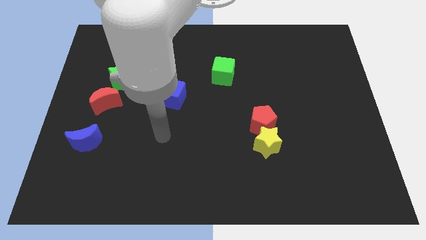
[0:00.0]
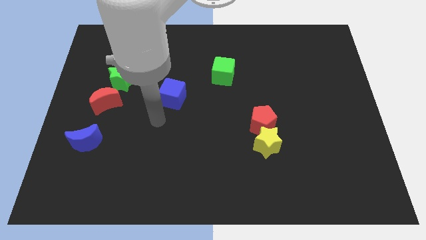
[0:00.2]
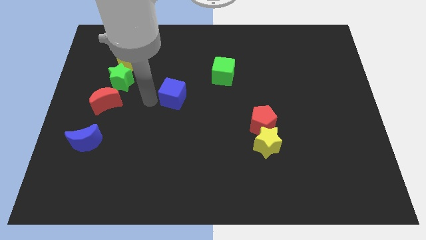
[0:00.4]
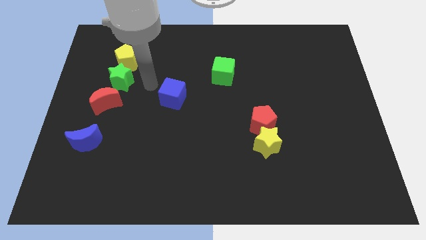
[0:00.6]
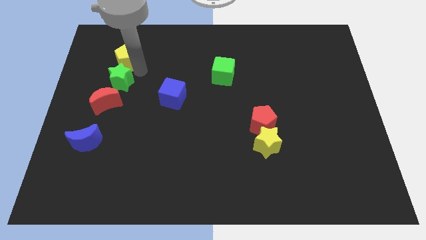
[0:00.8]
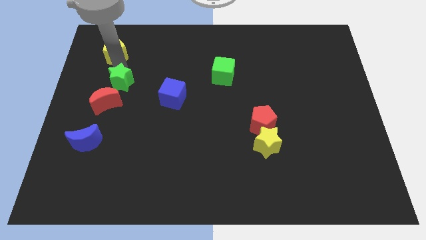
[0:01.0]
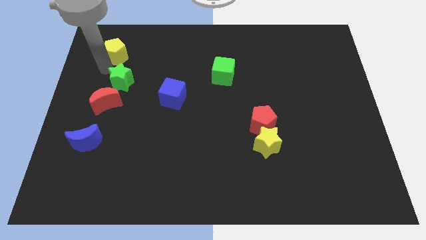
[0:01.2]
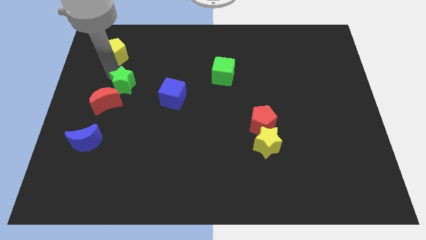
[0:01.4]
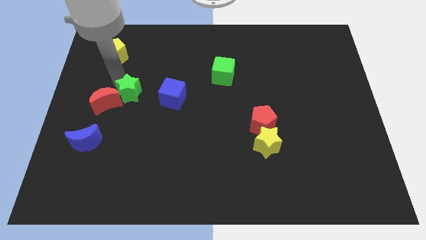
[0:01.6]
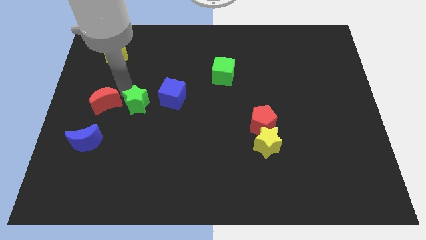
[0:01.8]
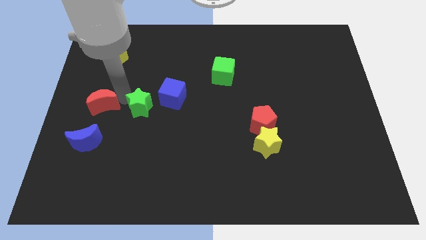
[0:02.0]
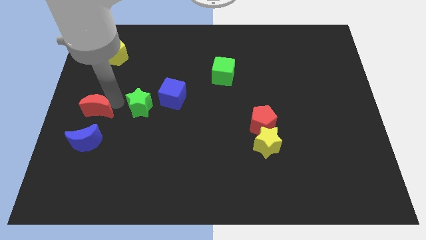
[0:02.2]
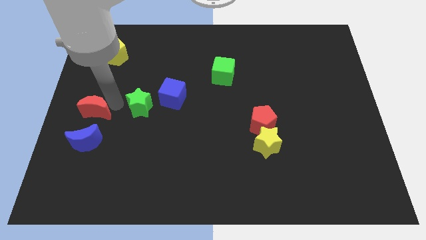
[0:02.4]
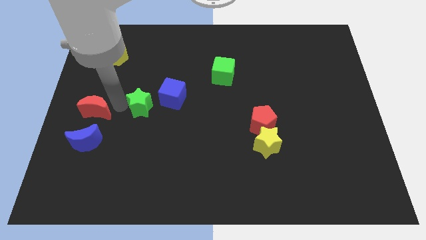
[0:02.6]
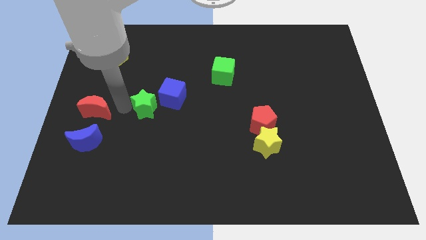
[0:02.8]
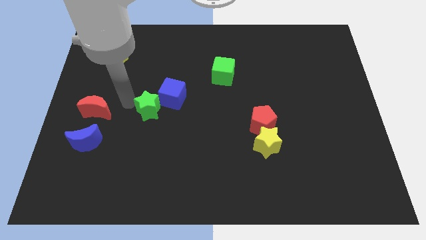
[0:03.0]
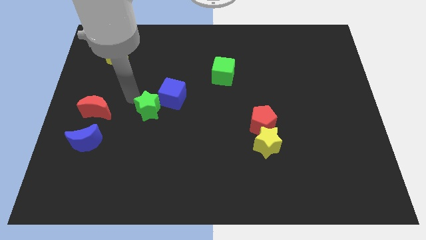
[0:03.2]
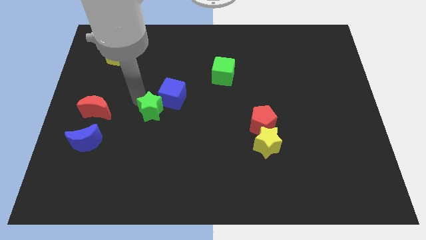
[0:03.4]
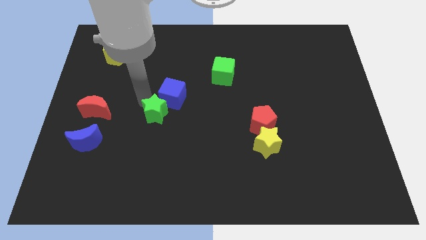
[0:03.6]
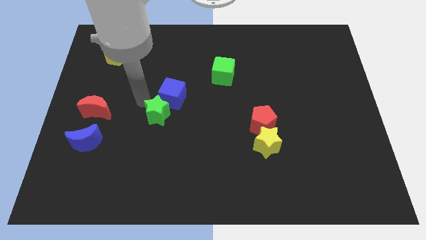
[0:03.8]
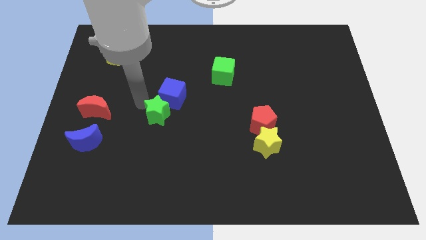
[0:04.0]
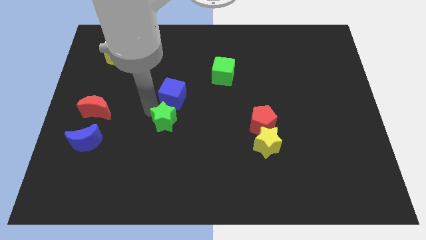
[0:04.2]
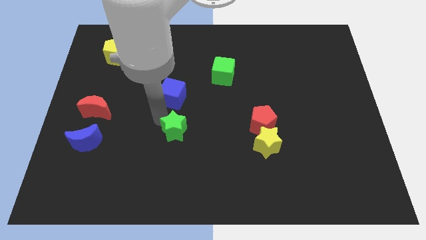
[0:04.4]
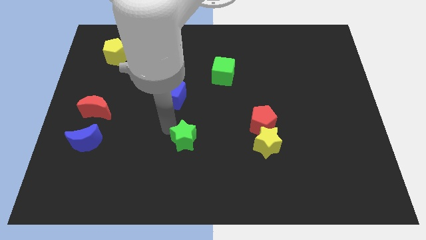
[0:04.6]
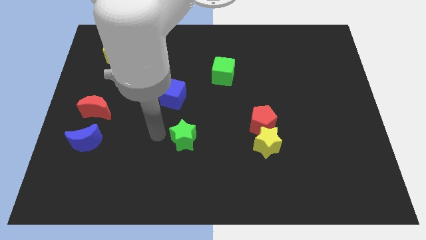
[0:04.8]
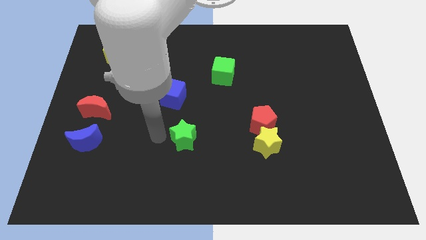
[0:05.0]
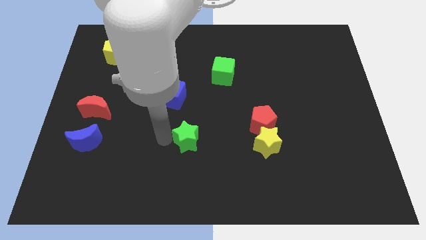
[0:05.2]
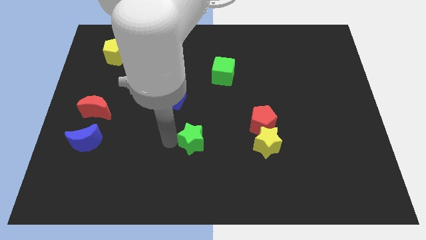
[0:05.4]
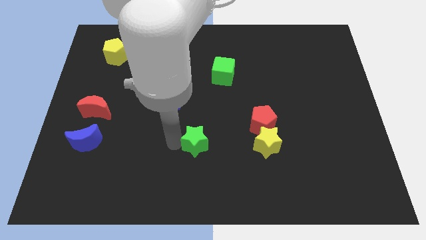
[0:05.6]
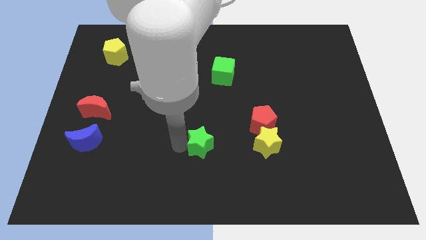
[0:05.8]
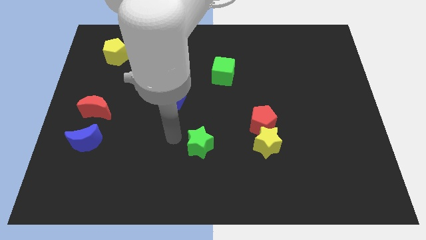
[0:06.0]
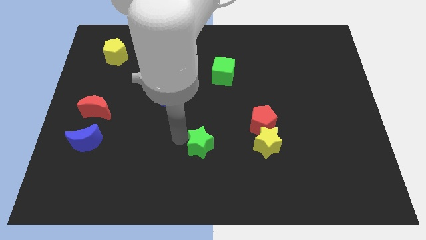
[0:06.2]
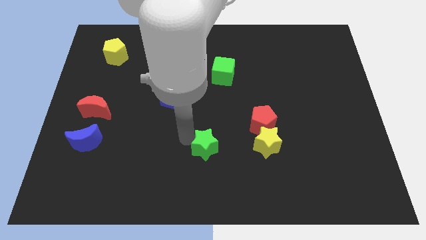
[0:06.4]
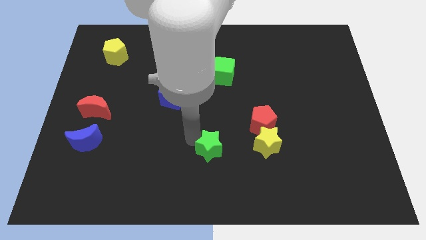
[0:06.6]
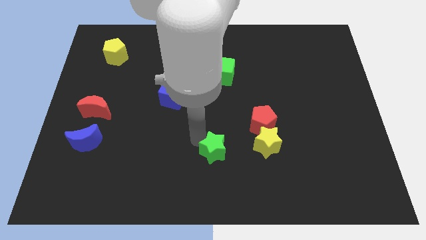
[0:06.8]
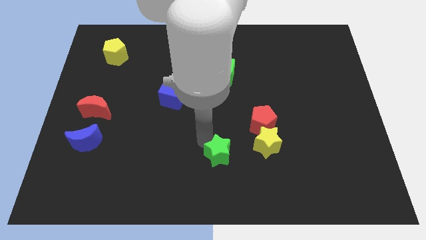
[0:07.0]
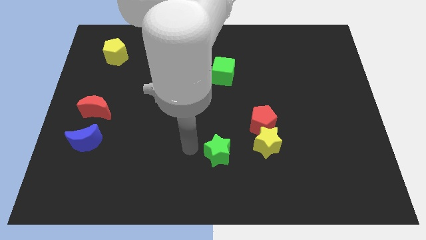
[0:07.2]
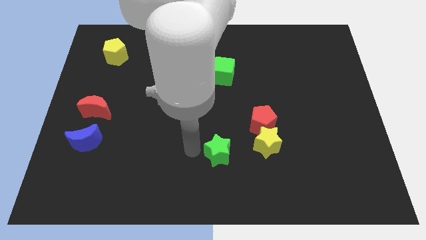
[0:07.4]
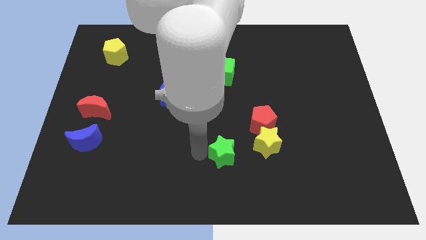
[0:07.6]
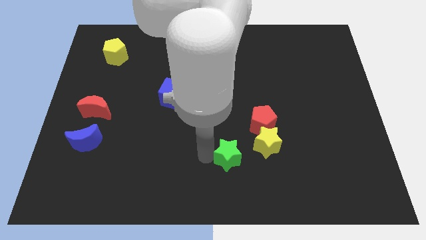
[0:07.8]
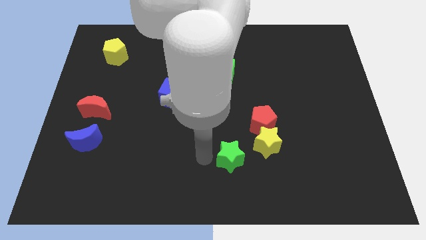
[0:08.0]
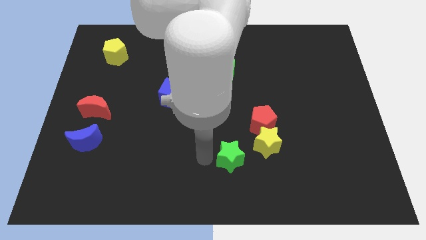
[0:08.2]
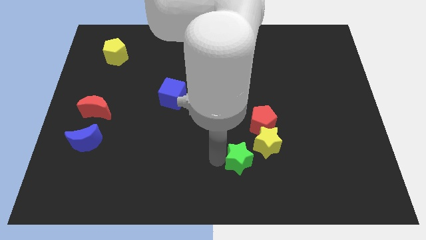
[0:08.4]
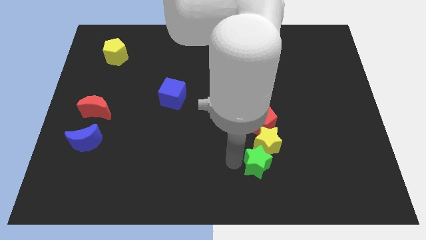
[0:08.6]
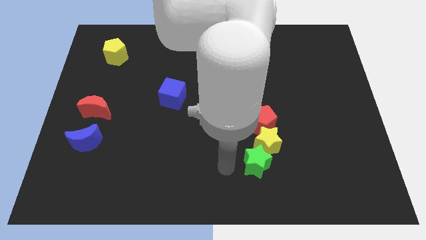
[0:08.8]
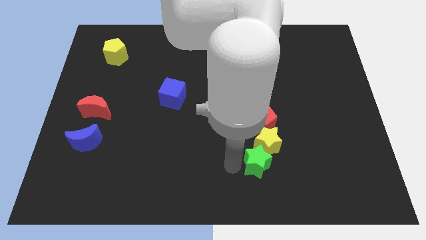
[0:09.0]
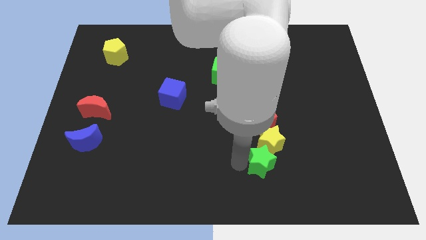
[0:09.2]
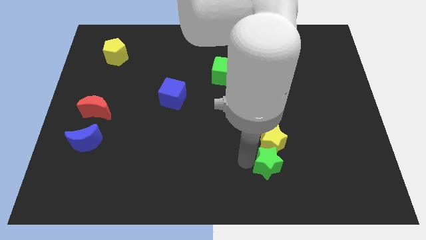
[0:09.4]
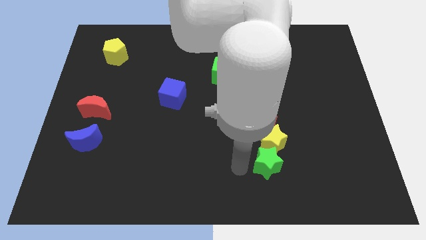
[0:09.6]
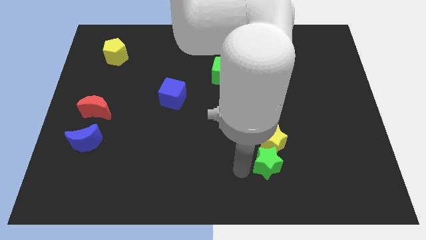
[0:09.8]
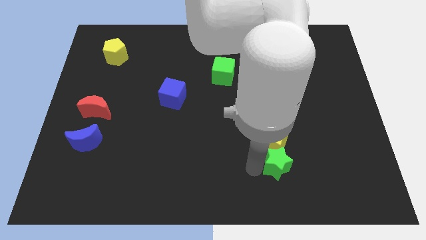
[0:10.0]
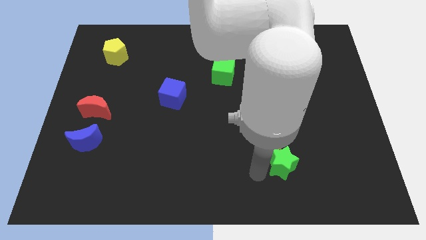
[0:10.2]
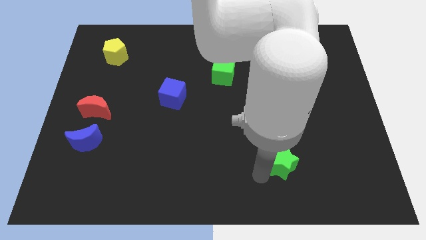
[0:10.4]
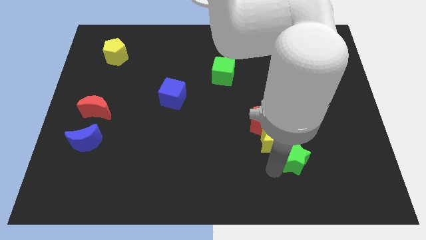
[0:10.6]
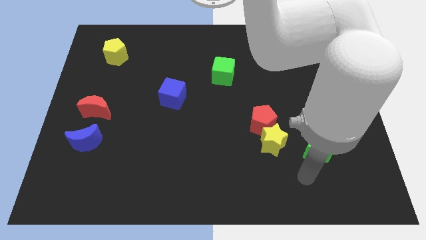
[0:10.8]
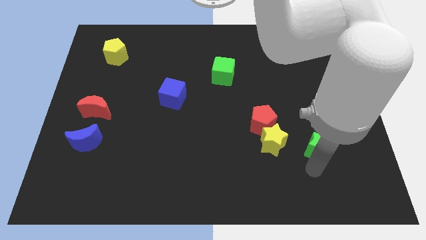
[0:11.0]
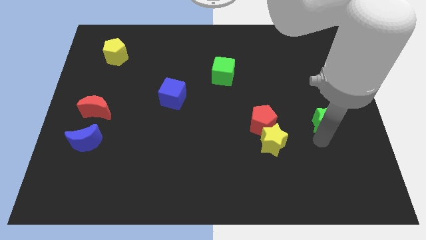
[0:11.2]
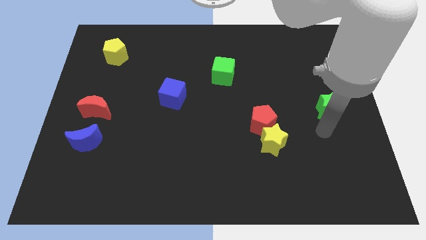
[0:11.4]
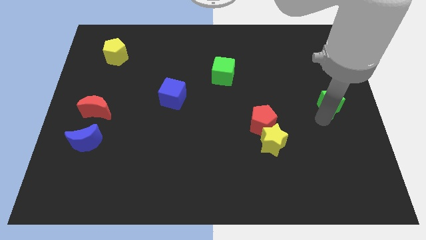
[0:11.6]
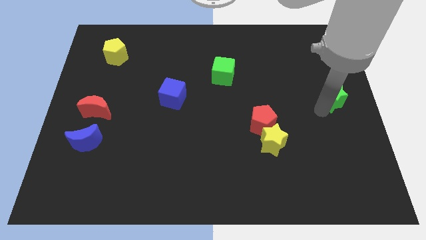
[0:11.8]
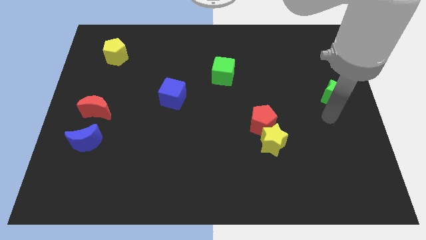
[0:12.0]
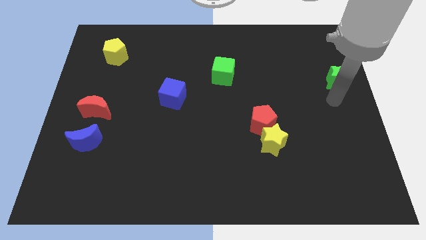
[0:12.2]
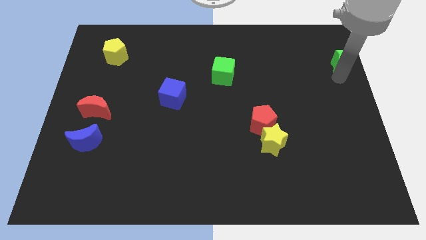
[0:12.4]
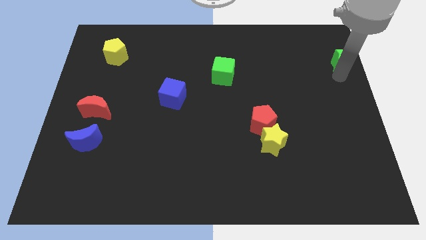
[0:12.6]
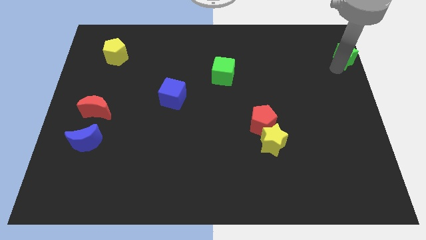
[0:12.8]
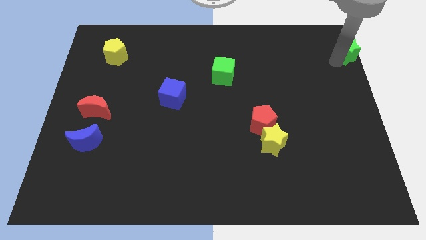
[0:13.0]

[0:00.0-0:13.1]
put the green star to the top right corner

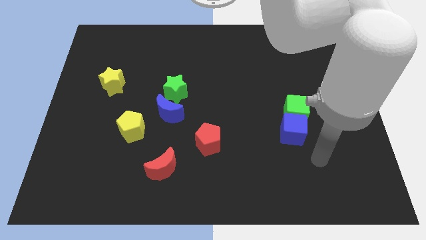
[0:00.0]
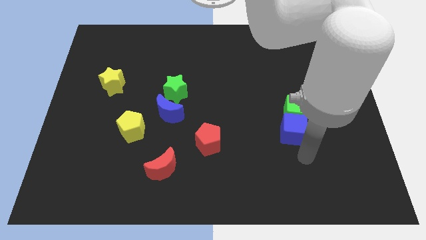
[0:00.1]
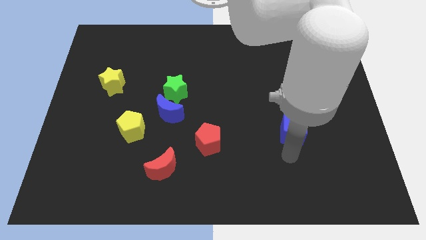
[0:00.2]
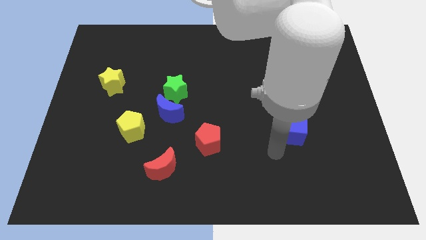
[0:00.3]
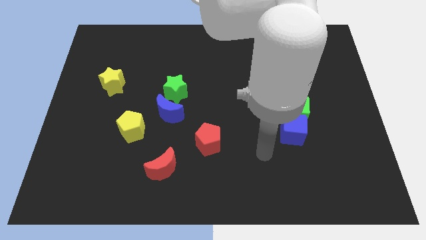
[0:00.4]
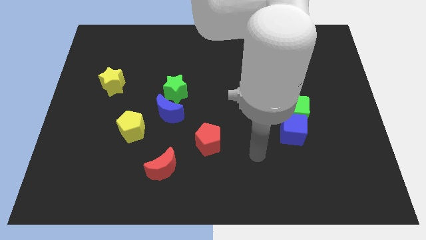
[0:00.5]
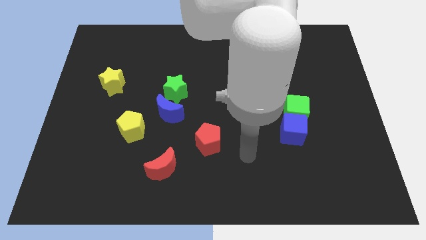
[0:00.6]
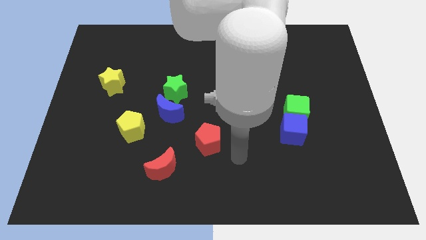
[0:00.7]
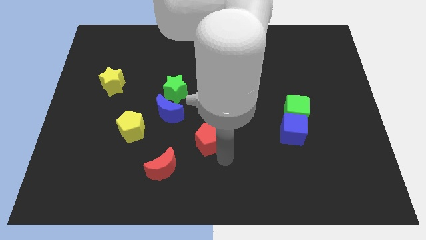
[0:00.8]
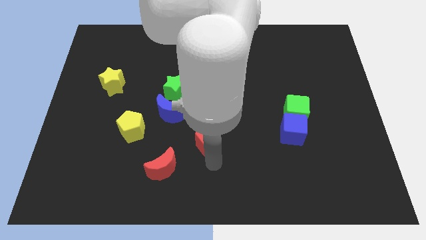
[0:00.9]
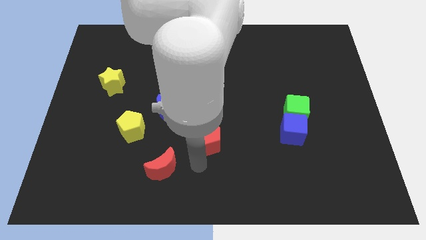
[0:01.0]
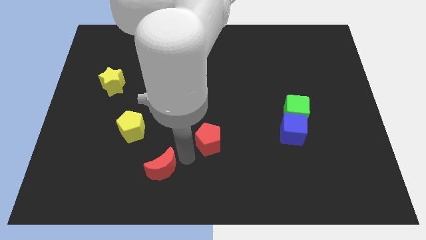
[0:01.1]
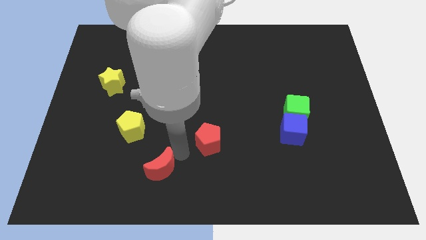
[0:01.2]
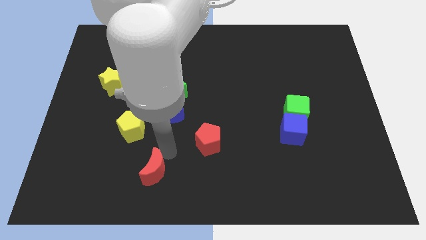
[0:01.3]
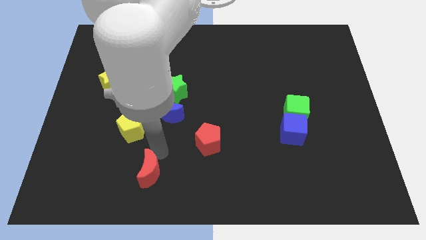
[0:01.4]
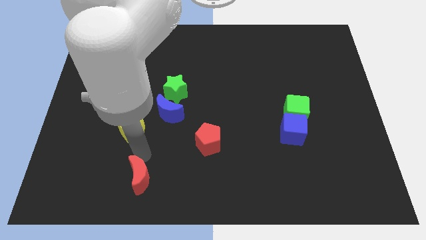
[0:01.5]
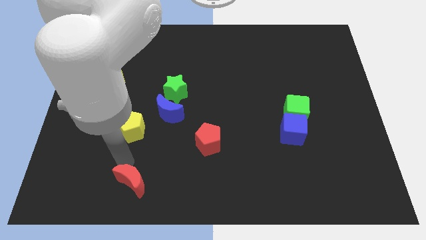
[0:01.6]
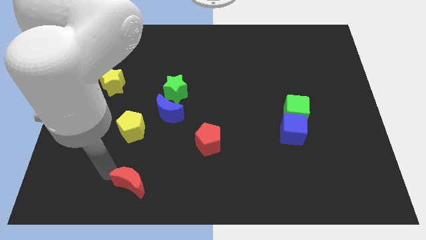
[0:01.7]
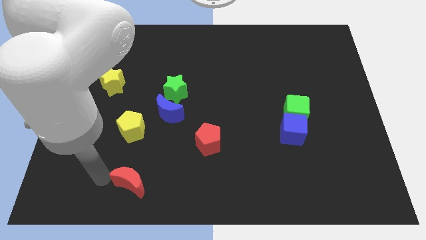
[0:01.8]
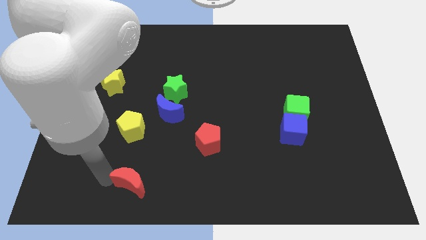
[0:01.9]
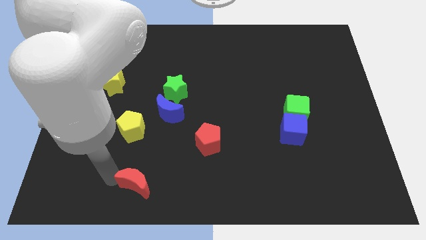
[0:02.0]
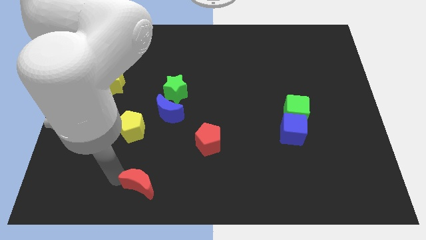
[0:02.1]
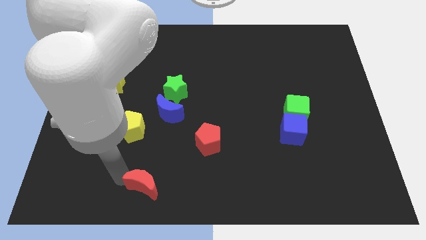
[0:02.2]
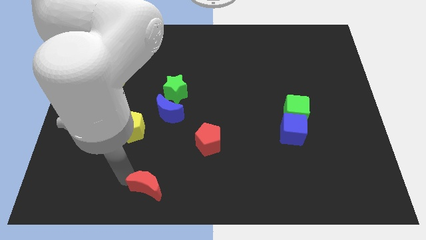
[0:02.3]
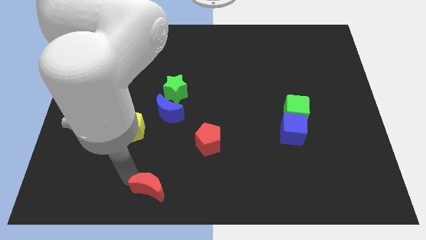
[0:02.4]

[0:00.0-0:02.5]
push the red moon to the bottom
